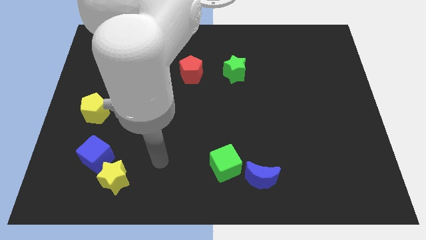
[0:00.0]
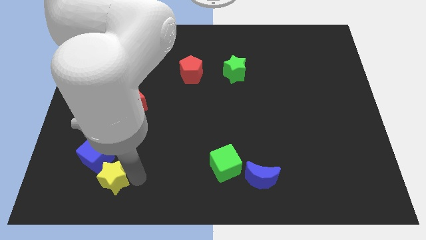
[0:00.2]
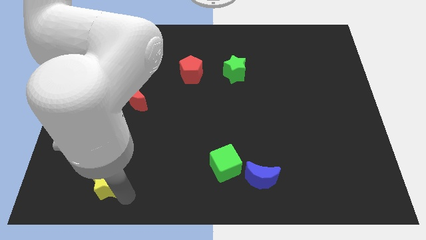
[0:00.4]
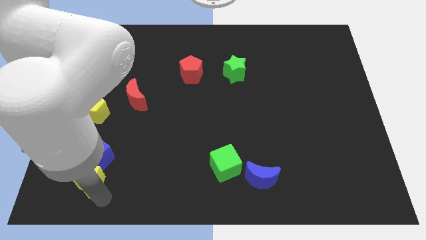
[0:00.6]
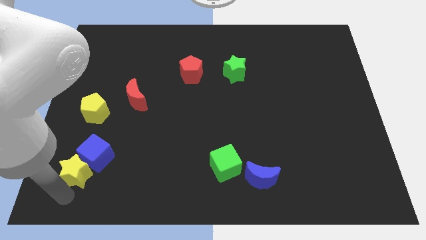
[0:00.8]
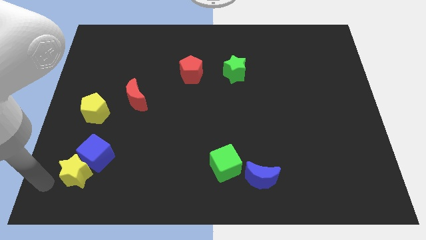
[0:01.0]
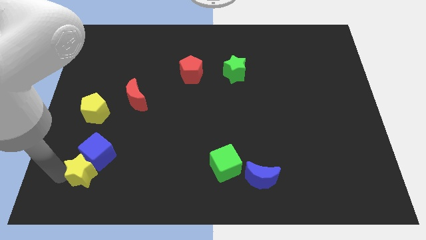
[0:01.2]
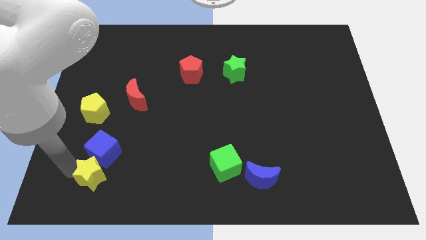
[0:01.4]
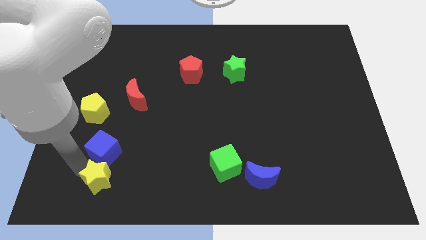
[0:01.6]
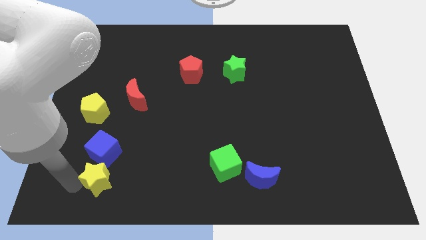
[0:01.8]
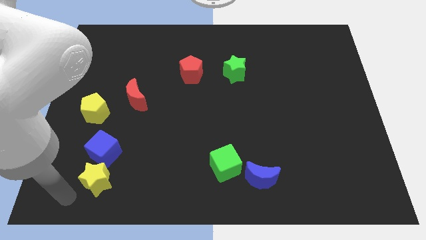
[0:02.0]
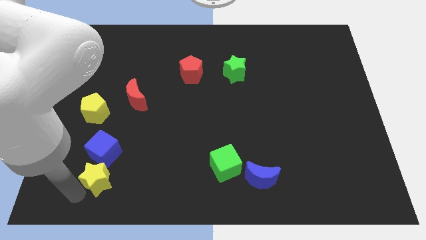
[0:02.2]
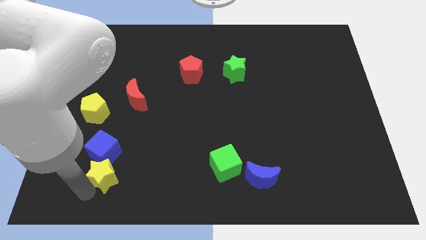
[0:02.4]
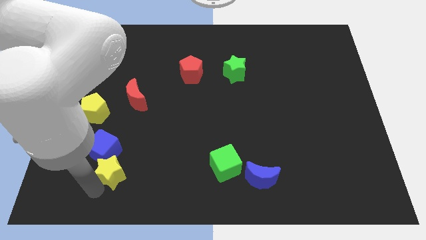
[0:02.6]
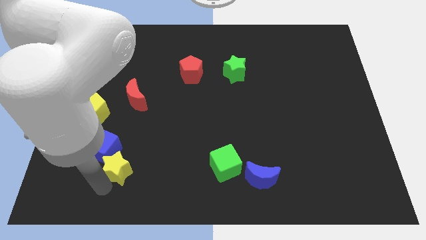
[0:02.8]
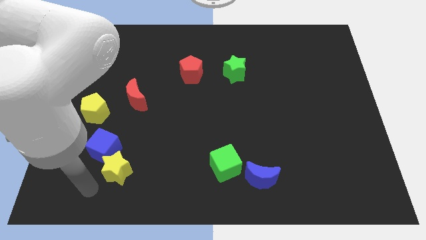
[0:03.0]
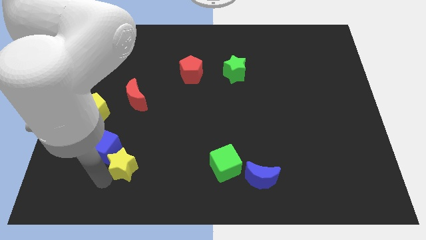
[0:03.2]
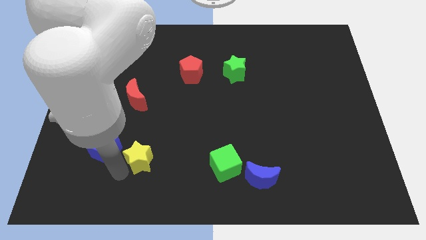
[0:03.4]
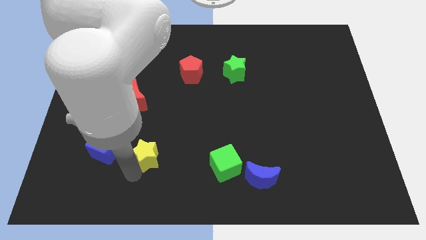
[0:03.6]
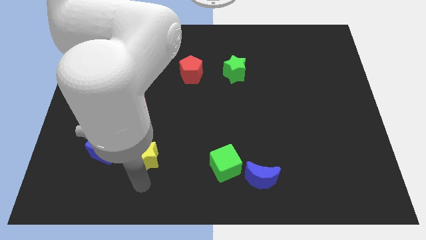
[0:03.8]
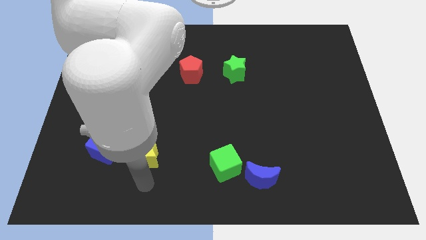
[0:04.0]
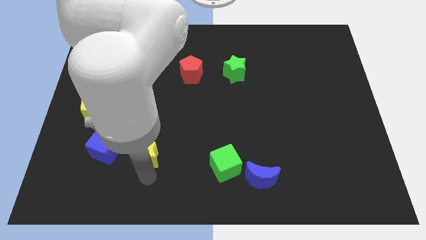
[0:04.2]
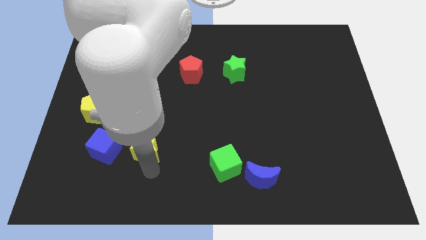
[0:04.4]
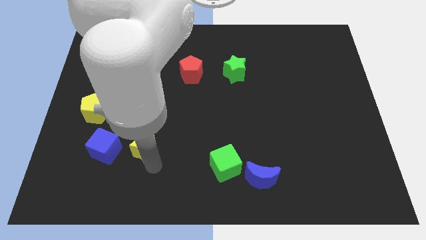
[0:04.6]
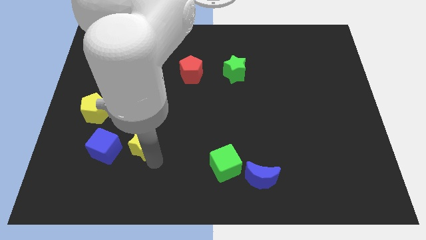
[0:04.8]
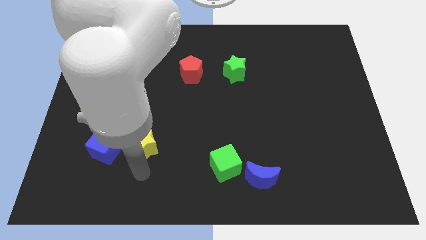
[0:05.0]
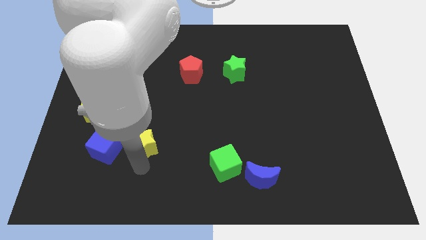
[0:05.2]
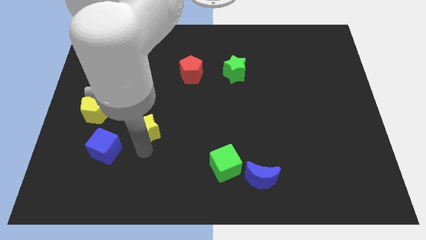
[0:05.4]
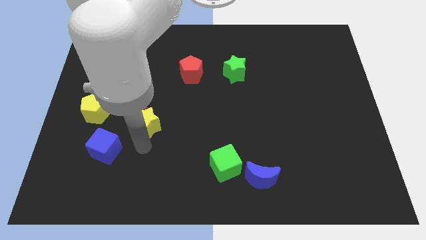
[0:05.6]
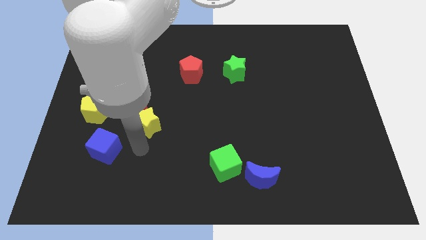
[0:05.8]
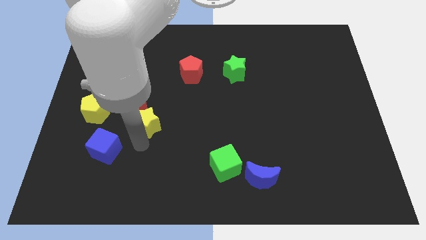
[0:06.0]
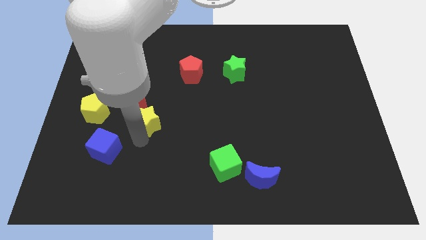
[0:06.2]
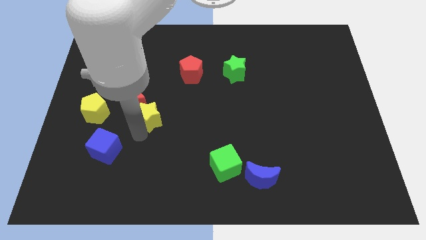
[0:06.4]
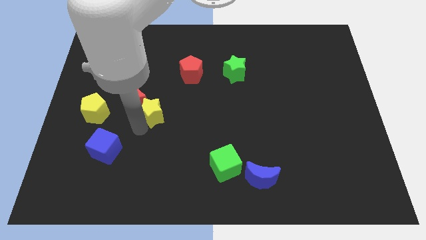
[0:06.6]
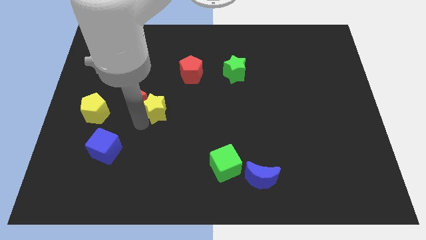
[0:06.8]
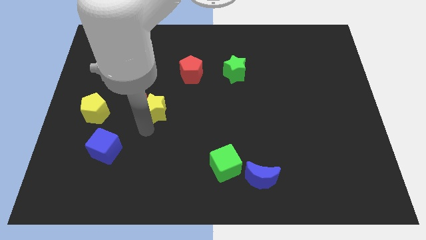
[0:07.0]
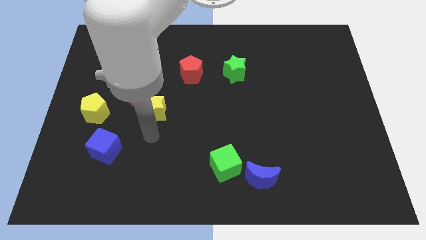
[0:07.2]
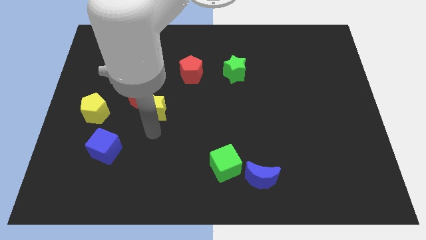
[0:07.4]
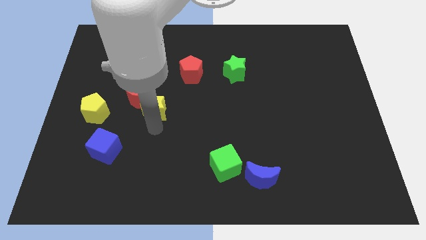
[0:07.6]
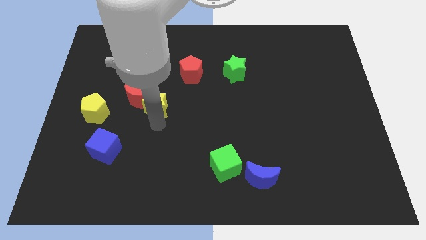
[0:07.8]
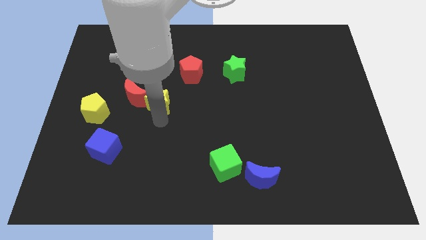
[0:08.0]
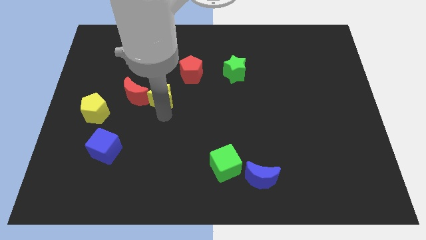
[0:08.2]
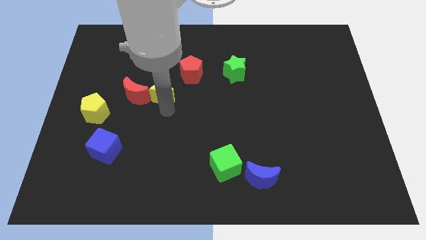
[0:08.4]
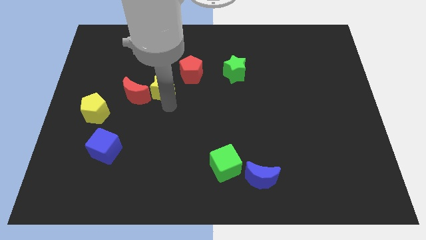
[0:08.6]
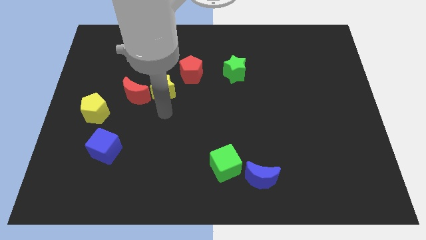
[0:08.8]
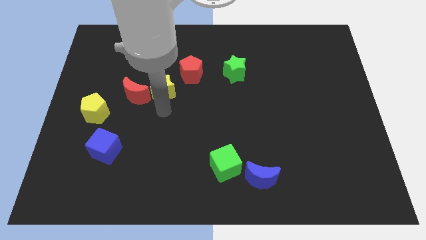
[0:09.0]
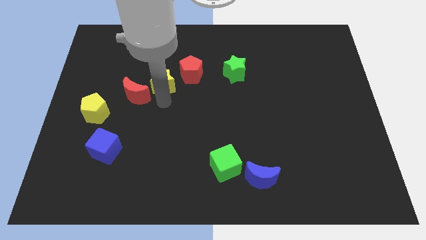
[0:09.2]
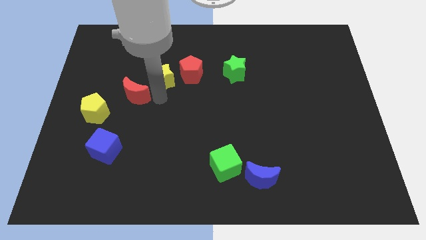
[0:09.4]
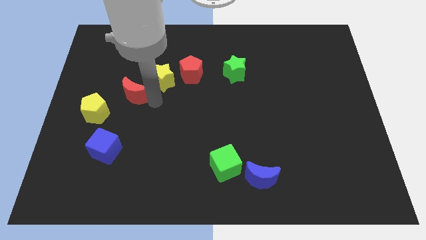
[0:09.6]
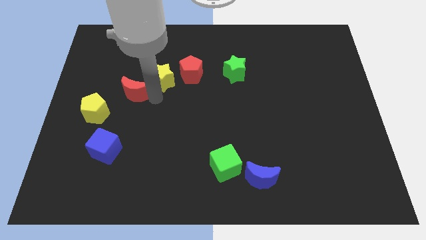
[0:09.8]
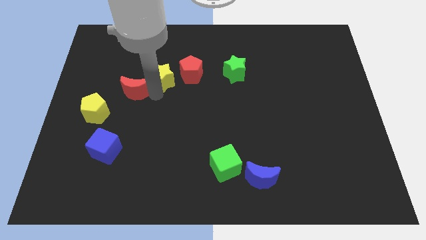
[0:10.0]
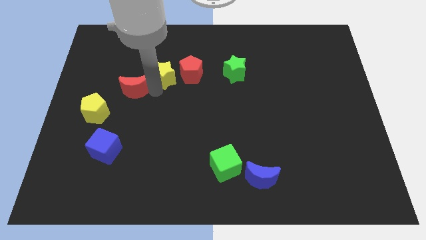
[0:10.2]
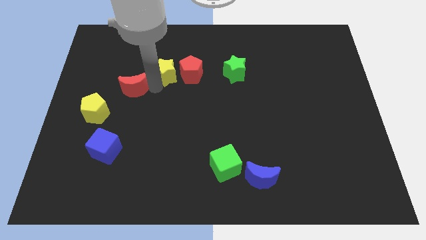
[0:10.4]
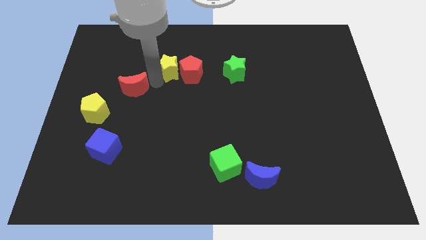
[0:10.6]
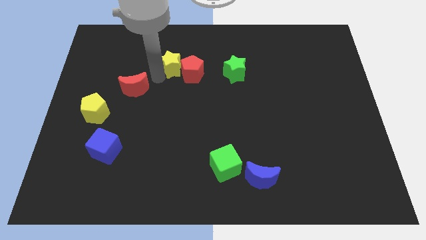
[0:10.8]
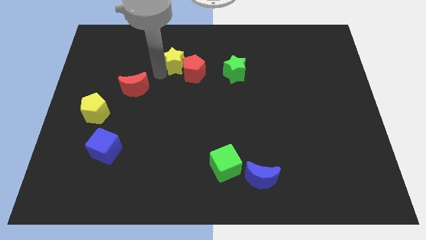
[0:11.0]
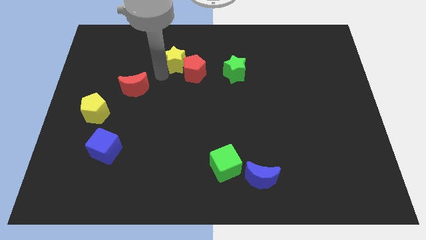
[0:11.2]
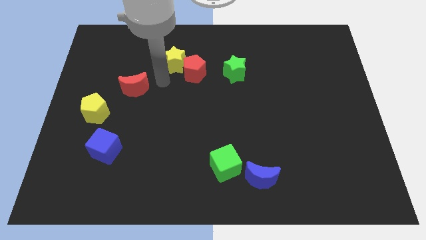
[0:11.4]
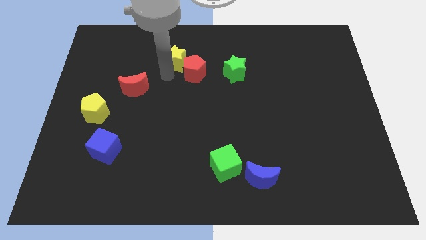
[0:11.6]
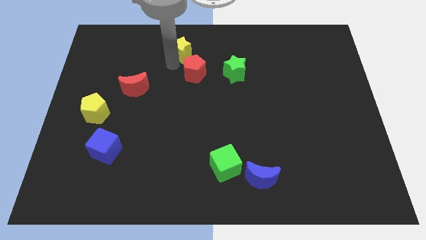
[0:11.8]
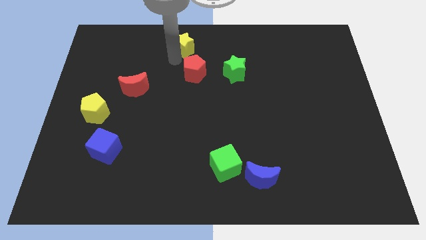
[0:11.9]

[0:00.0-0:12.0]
move the yellow star to the top
